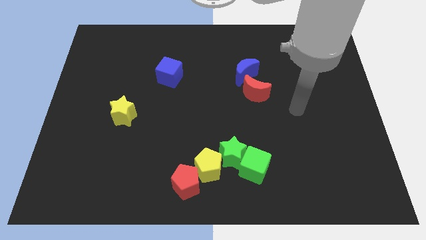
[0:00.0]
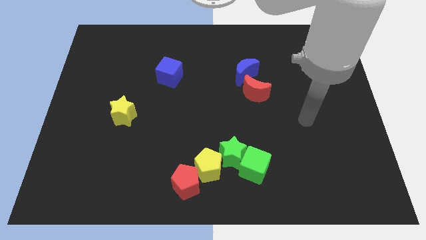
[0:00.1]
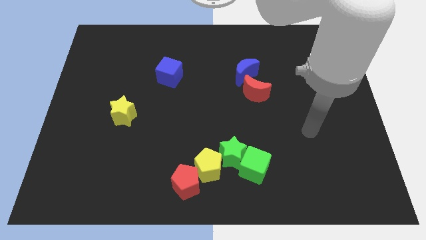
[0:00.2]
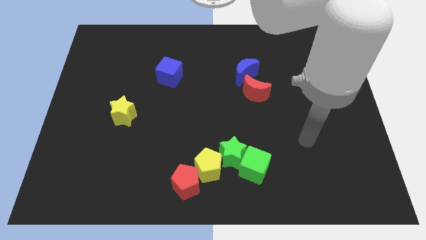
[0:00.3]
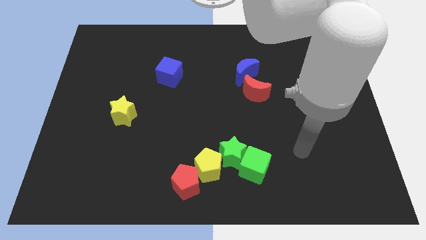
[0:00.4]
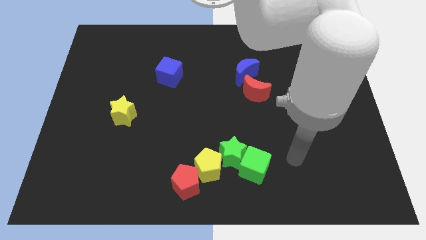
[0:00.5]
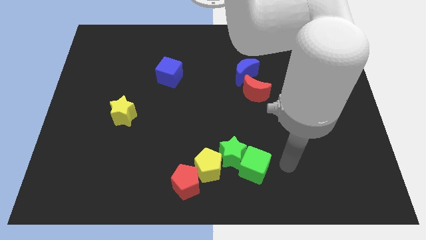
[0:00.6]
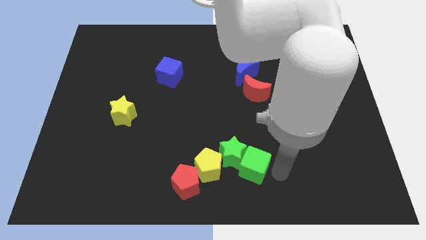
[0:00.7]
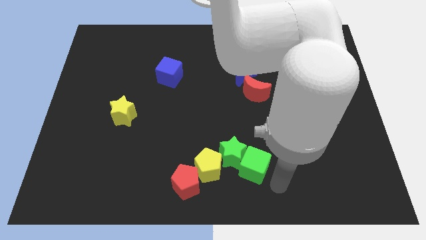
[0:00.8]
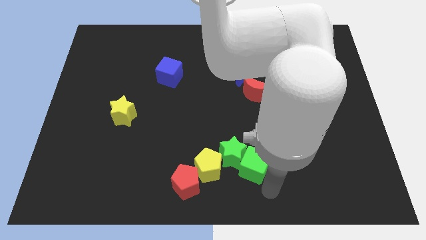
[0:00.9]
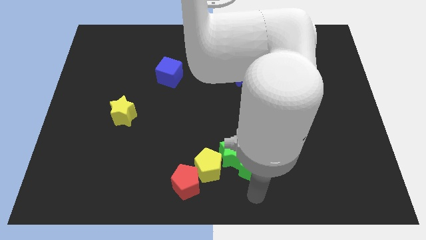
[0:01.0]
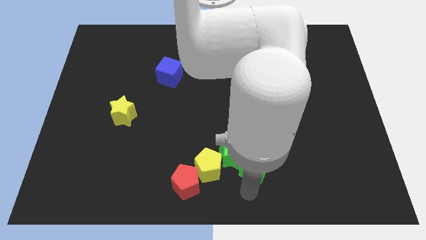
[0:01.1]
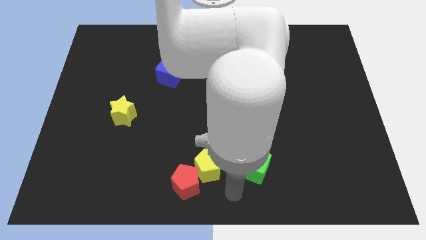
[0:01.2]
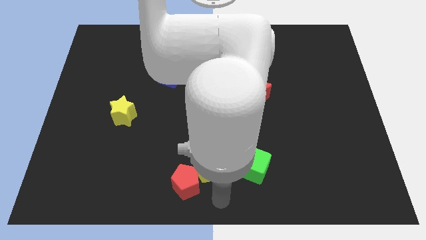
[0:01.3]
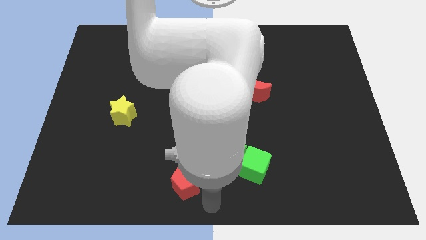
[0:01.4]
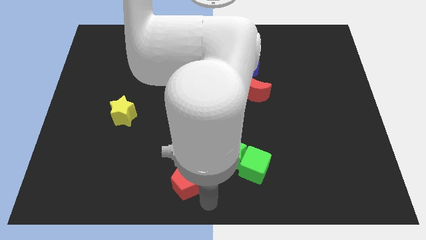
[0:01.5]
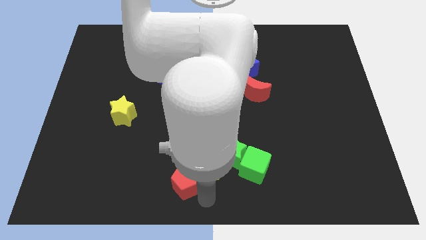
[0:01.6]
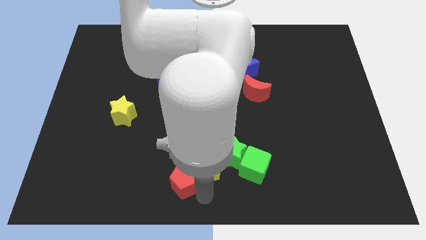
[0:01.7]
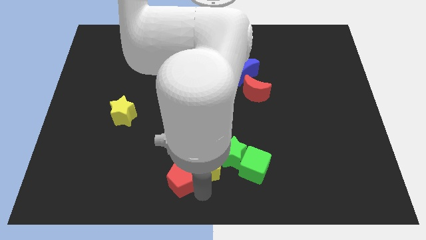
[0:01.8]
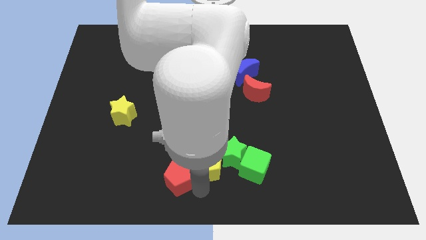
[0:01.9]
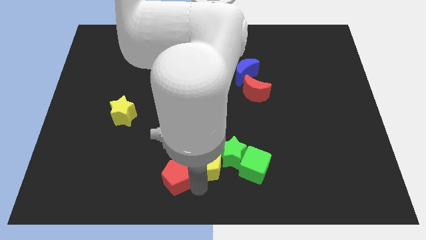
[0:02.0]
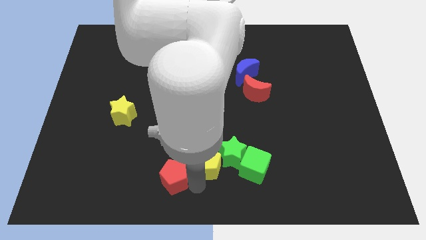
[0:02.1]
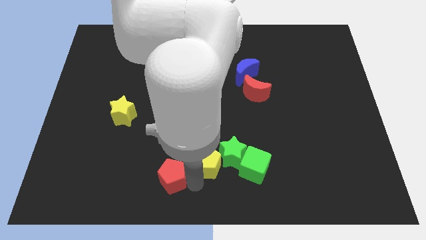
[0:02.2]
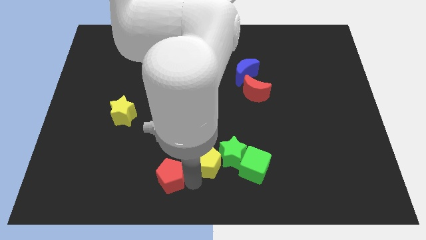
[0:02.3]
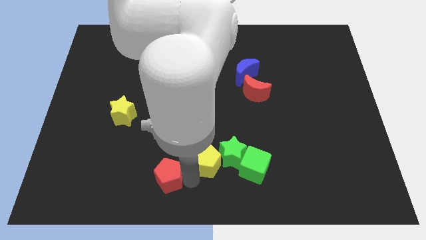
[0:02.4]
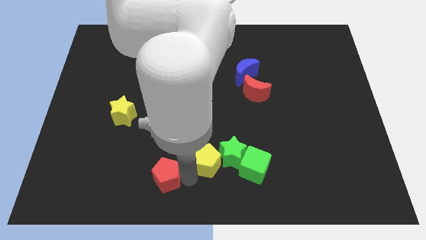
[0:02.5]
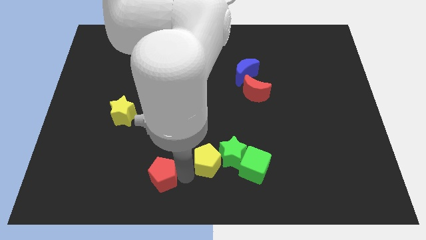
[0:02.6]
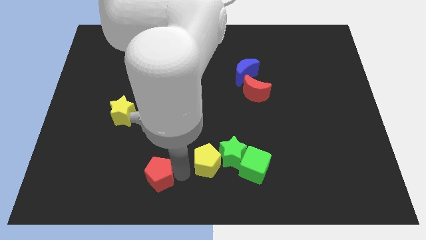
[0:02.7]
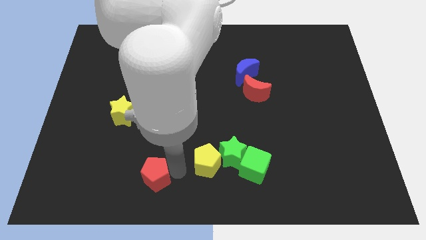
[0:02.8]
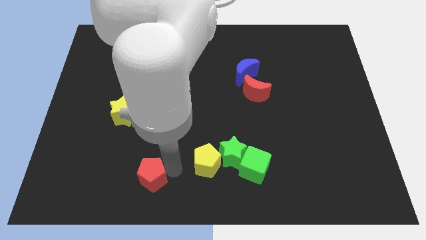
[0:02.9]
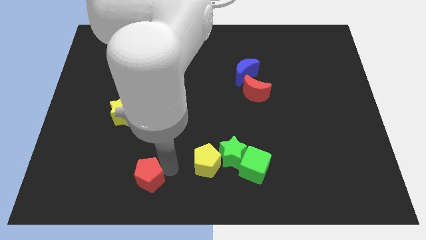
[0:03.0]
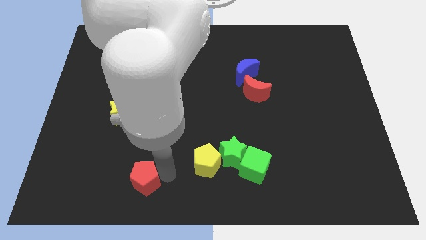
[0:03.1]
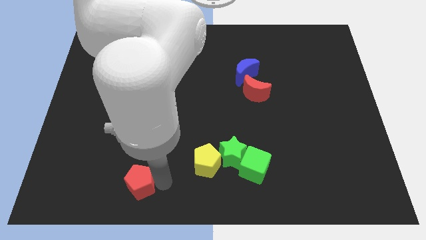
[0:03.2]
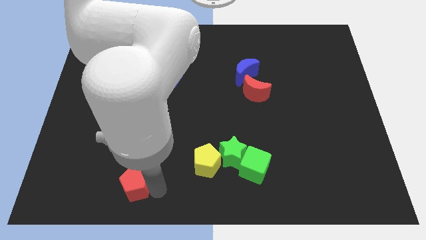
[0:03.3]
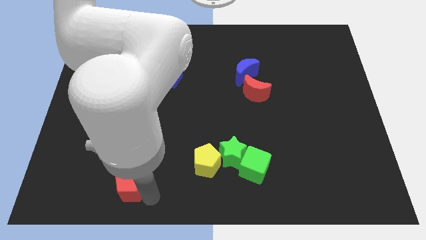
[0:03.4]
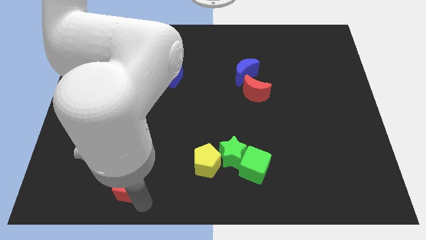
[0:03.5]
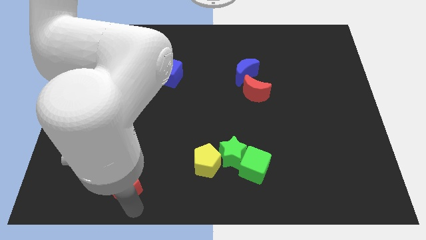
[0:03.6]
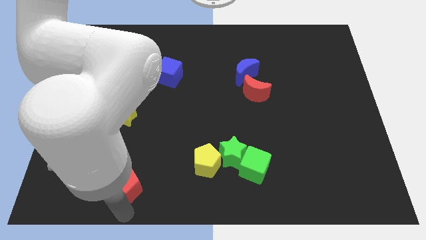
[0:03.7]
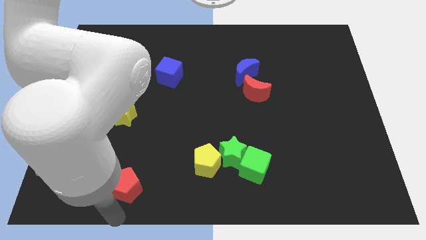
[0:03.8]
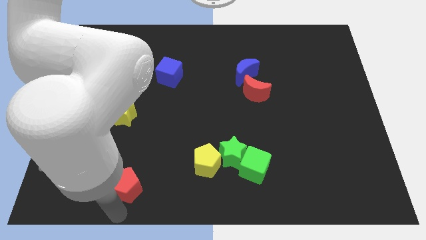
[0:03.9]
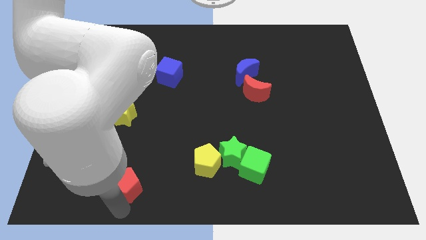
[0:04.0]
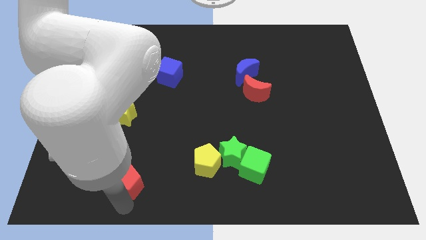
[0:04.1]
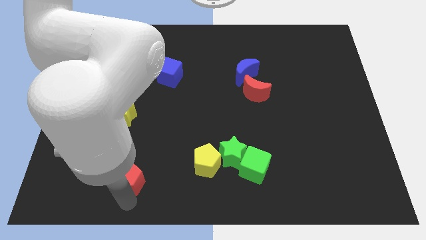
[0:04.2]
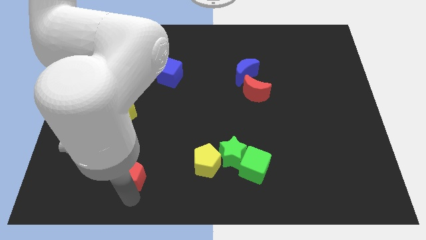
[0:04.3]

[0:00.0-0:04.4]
move the red pentagon up and left diagonally slightly

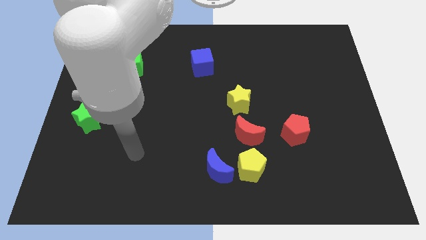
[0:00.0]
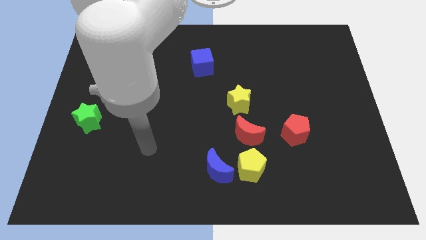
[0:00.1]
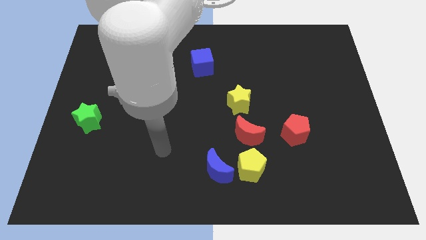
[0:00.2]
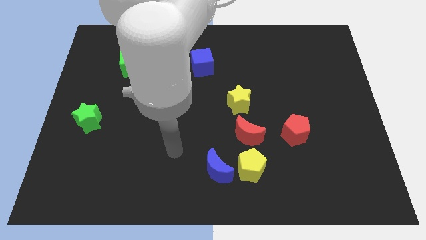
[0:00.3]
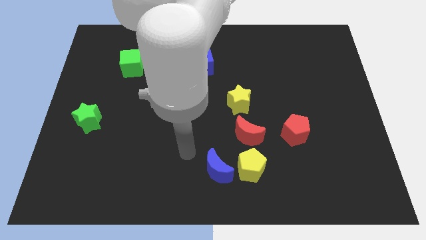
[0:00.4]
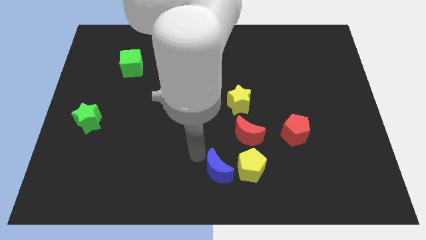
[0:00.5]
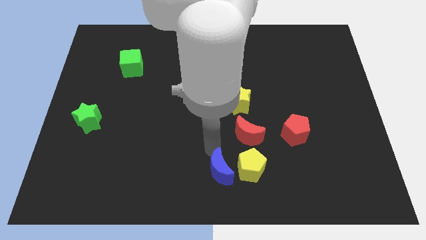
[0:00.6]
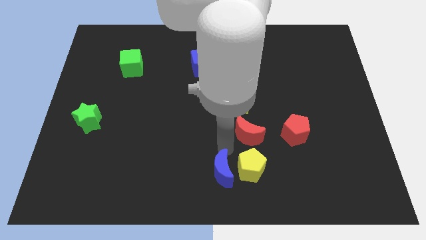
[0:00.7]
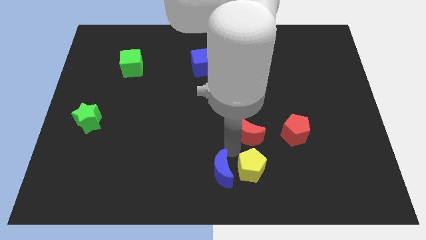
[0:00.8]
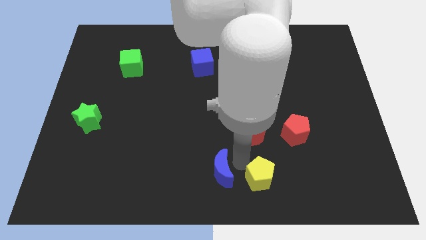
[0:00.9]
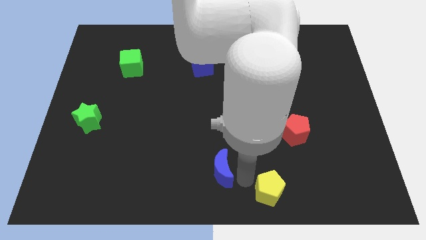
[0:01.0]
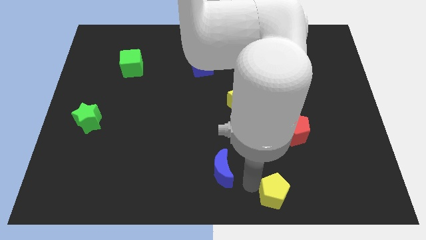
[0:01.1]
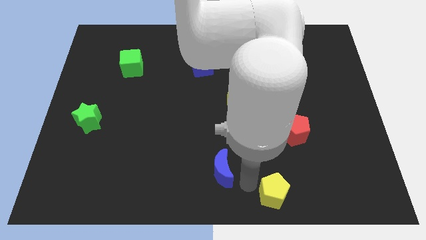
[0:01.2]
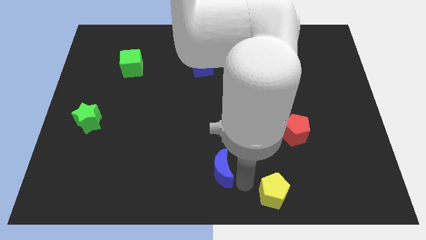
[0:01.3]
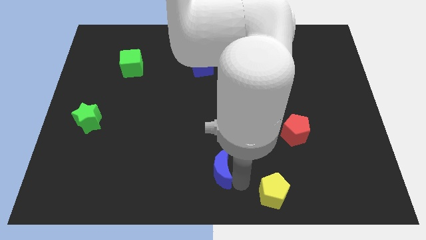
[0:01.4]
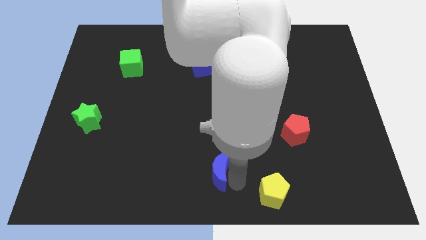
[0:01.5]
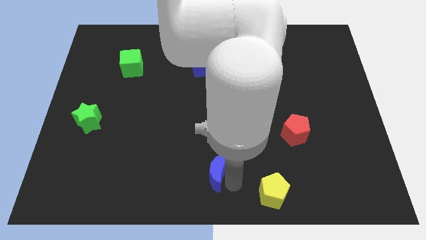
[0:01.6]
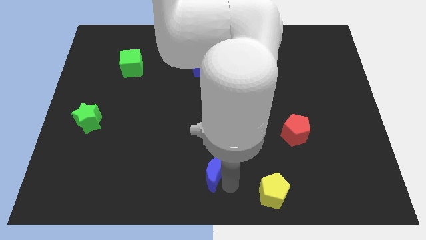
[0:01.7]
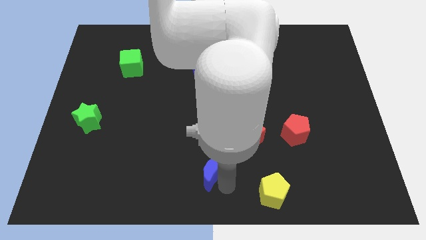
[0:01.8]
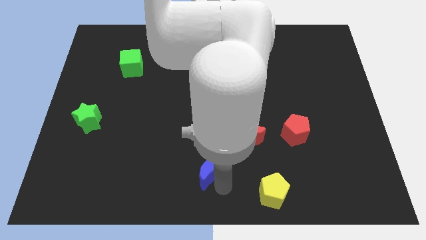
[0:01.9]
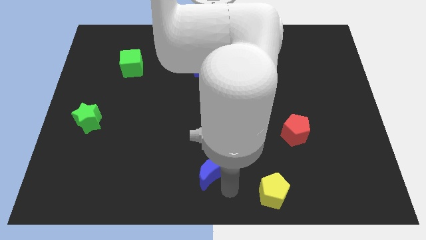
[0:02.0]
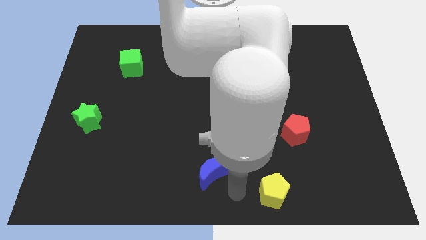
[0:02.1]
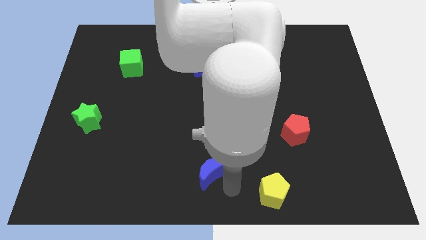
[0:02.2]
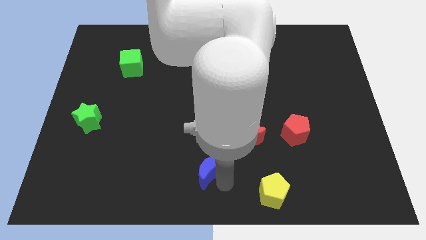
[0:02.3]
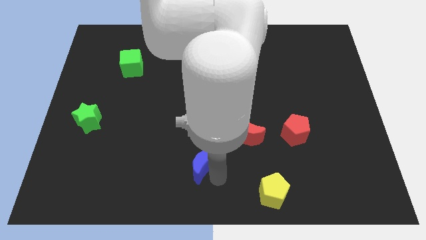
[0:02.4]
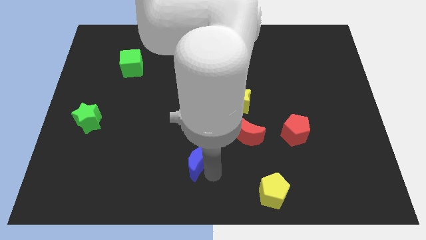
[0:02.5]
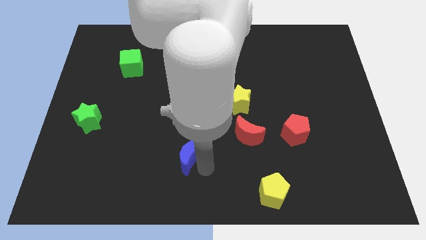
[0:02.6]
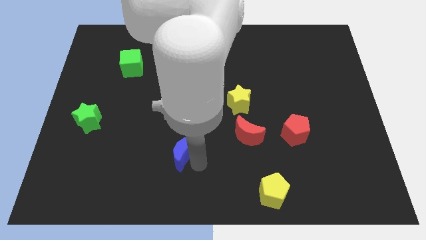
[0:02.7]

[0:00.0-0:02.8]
slide the blue moon upwards and to the left diagonally a little

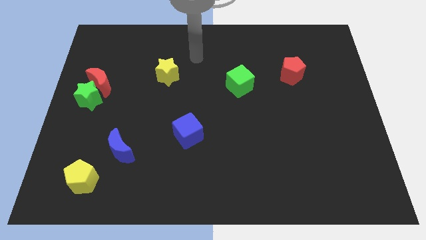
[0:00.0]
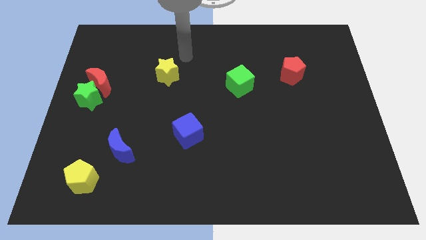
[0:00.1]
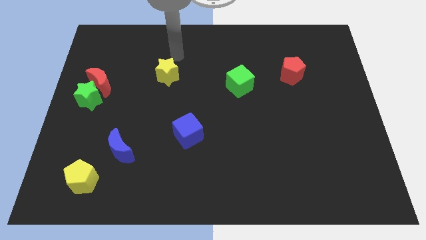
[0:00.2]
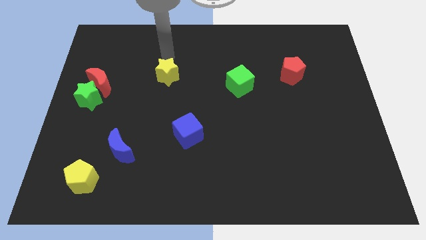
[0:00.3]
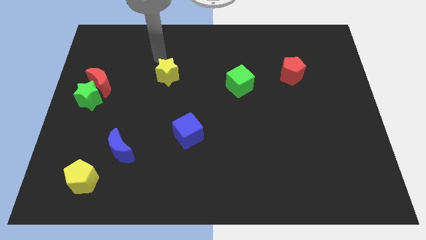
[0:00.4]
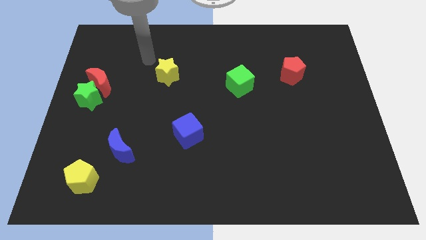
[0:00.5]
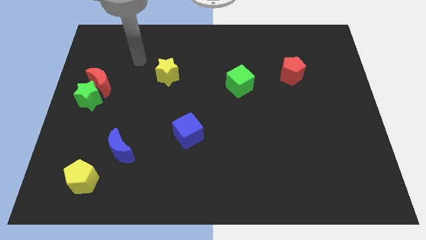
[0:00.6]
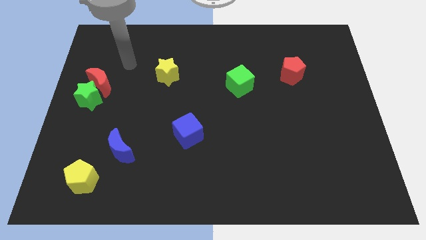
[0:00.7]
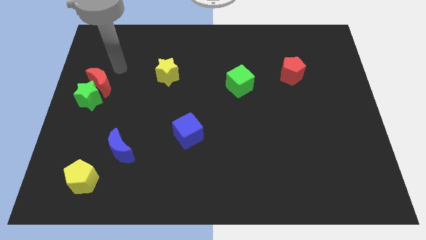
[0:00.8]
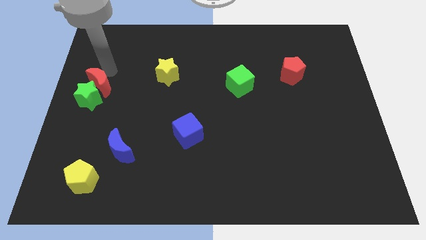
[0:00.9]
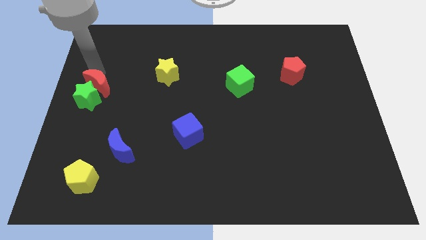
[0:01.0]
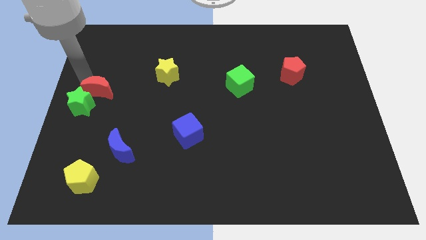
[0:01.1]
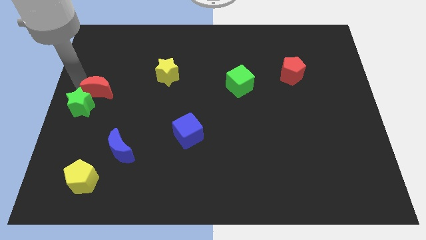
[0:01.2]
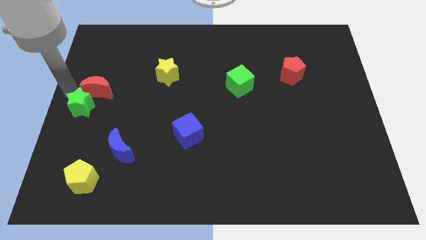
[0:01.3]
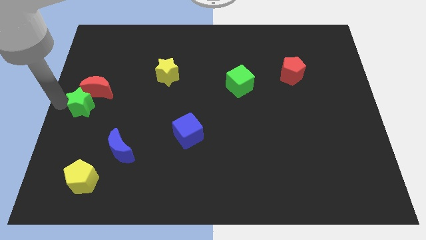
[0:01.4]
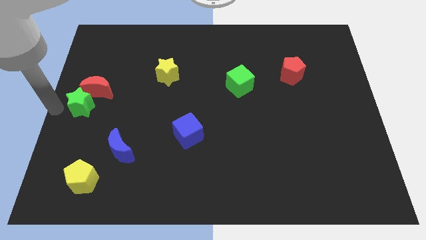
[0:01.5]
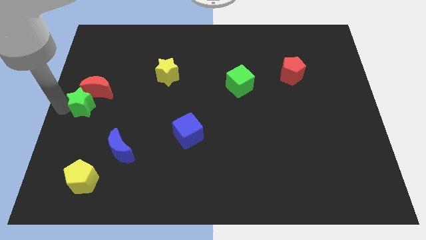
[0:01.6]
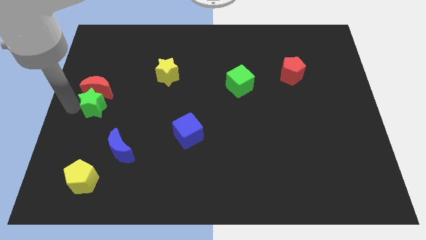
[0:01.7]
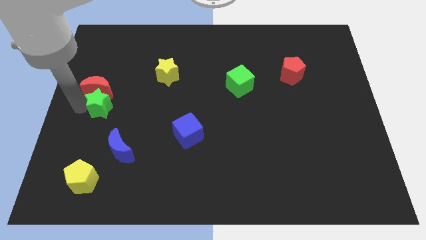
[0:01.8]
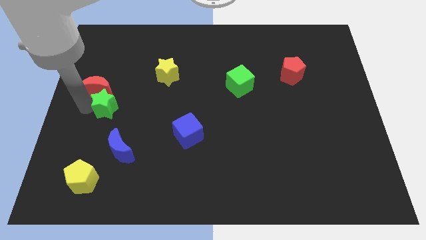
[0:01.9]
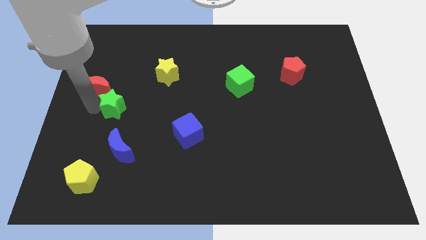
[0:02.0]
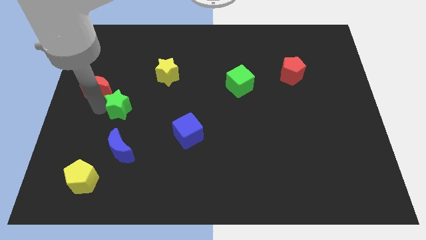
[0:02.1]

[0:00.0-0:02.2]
slightly slide the green star to the right
